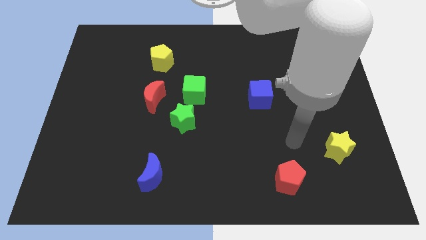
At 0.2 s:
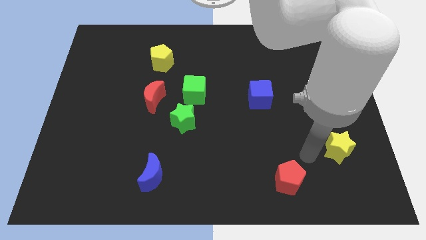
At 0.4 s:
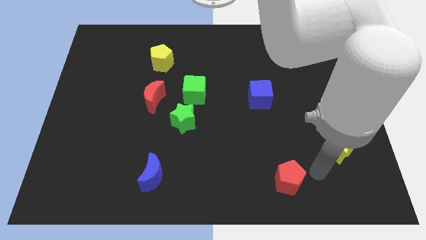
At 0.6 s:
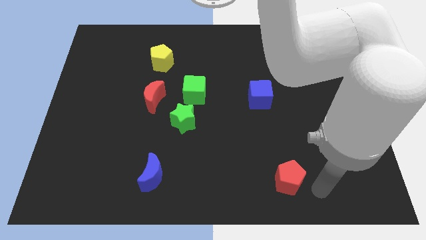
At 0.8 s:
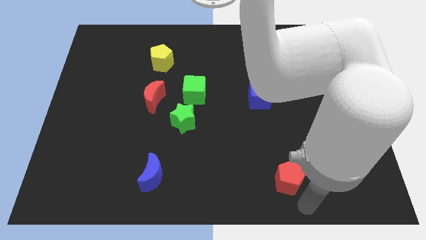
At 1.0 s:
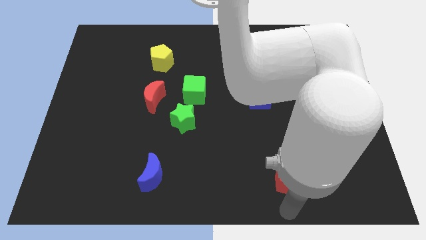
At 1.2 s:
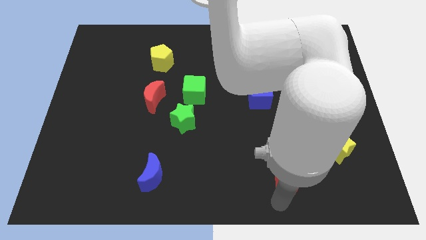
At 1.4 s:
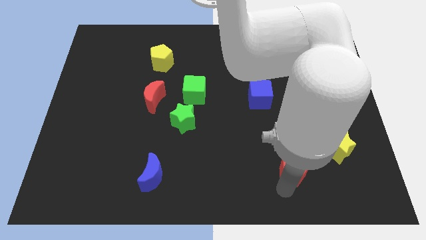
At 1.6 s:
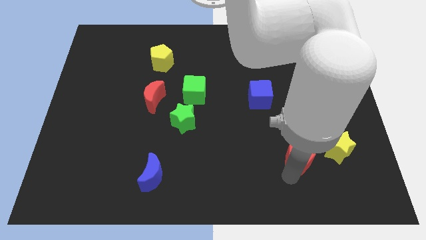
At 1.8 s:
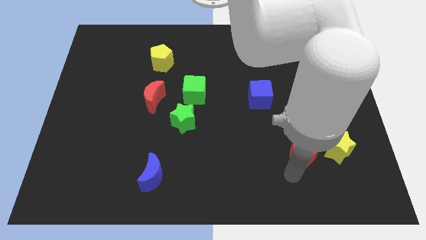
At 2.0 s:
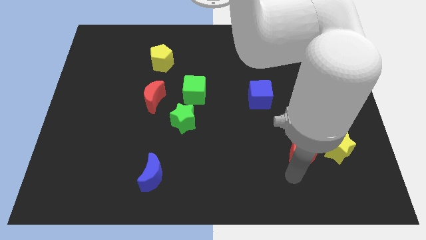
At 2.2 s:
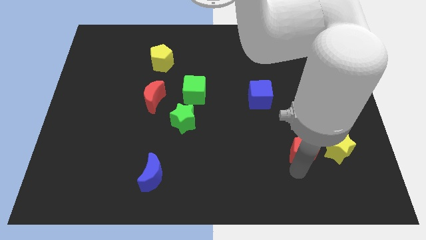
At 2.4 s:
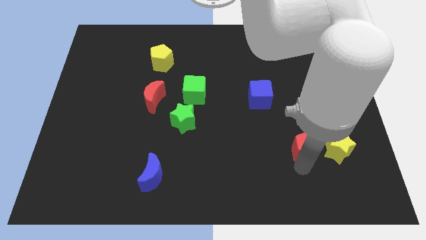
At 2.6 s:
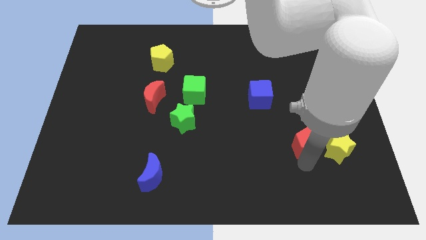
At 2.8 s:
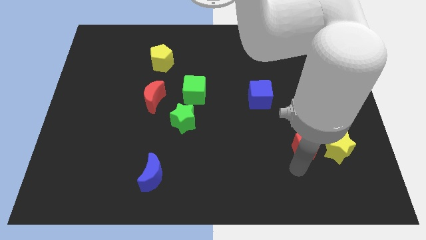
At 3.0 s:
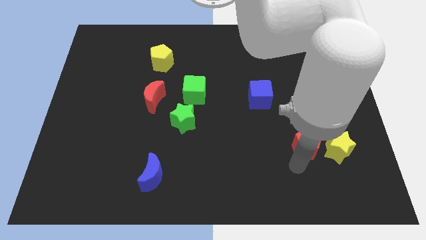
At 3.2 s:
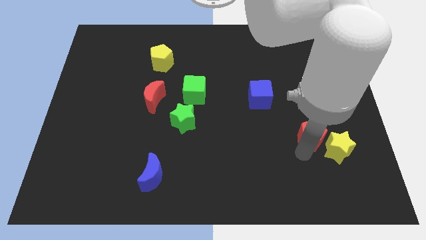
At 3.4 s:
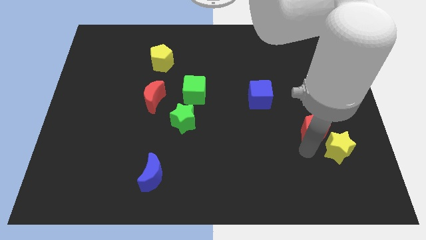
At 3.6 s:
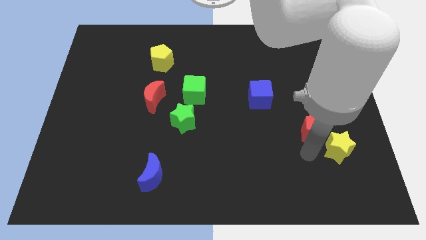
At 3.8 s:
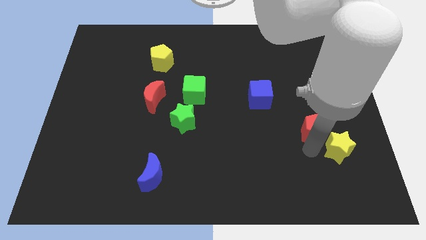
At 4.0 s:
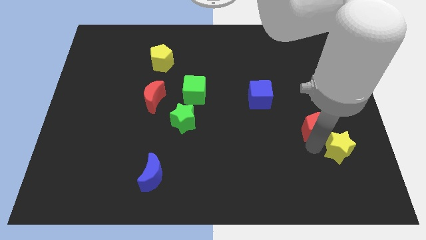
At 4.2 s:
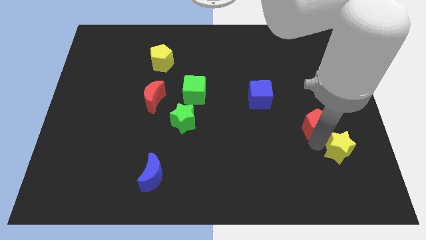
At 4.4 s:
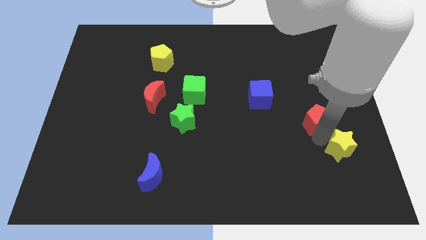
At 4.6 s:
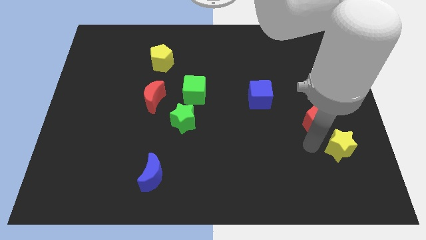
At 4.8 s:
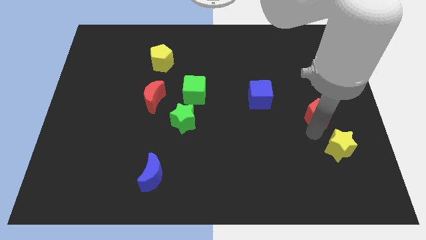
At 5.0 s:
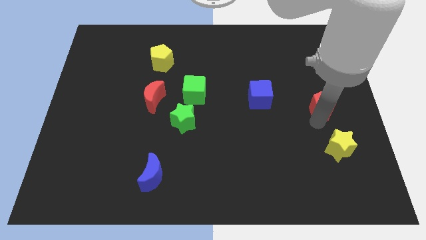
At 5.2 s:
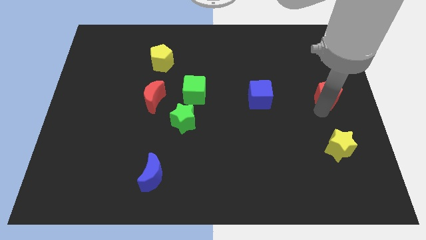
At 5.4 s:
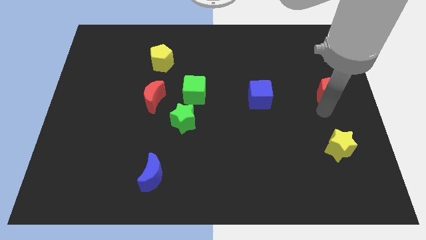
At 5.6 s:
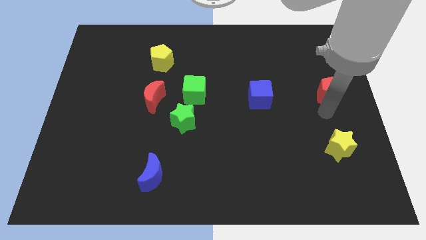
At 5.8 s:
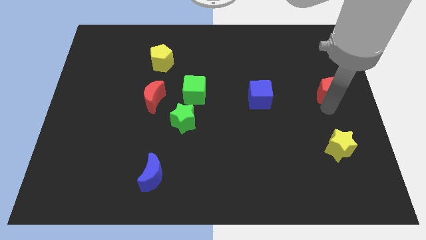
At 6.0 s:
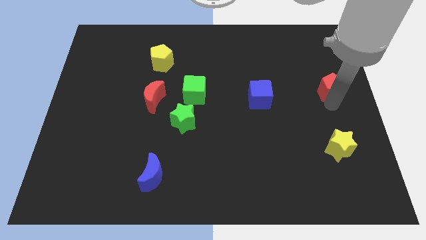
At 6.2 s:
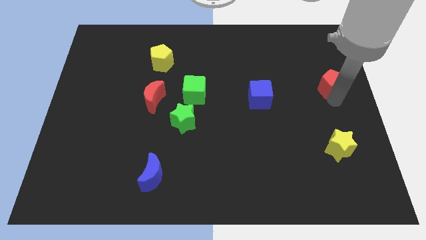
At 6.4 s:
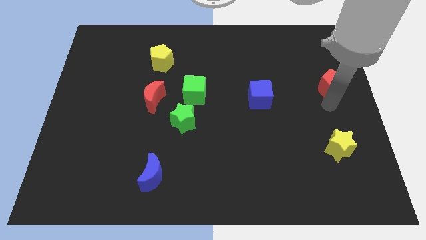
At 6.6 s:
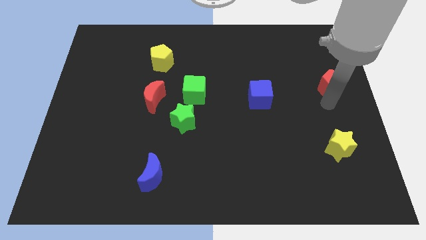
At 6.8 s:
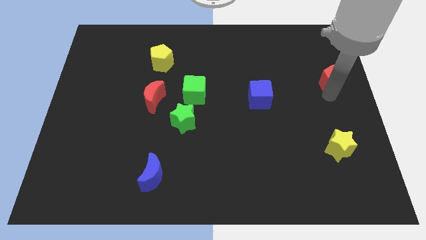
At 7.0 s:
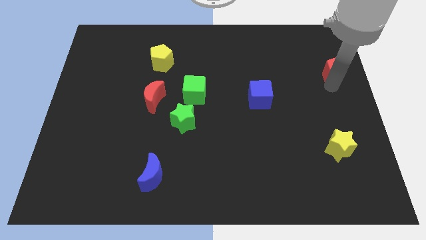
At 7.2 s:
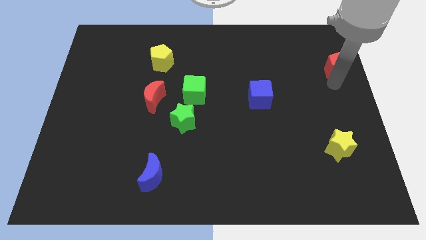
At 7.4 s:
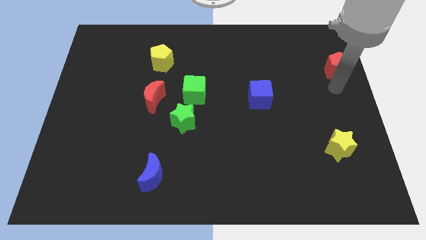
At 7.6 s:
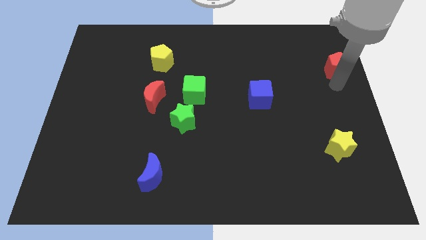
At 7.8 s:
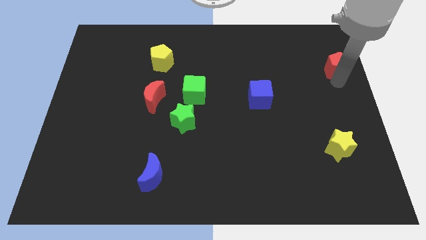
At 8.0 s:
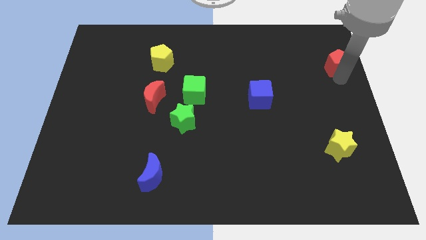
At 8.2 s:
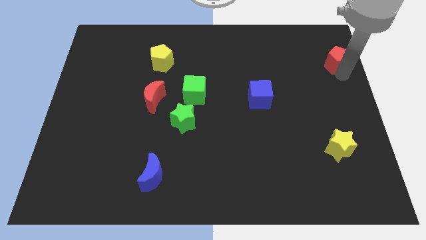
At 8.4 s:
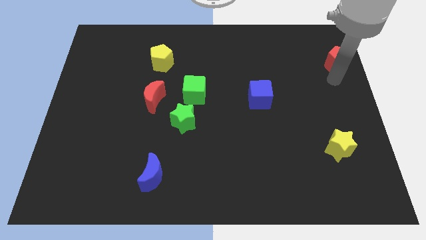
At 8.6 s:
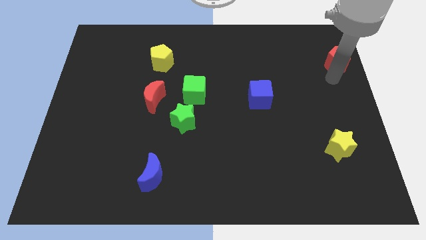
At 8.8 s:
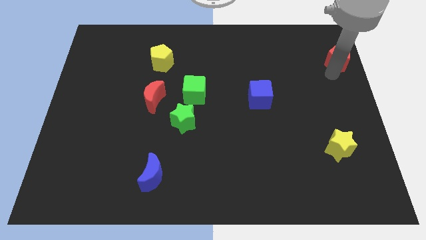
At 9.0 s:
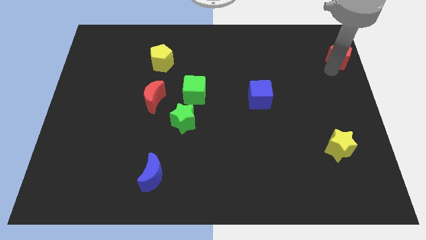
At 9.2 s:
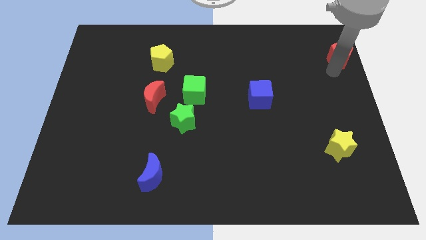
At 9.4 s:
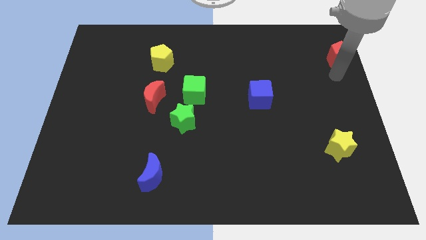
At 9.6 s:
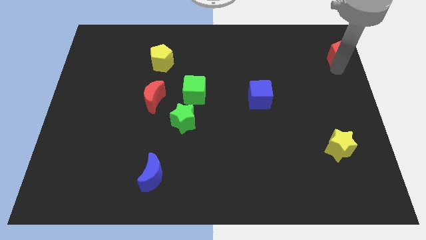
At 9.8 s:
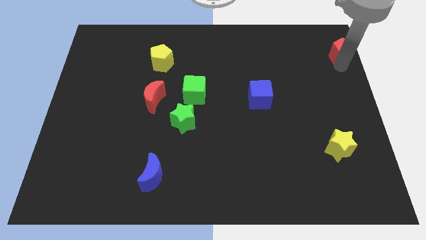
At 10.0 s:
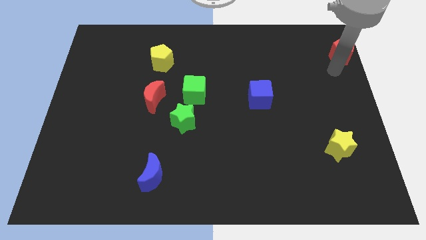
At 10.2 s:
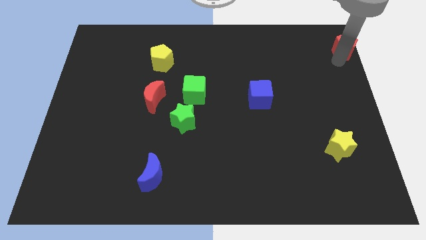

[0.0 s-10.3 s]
move the red pentagon to the upper right corner

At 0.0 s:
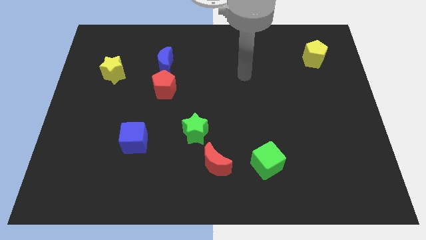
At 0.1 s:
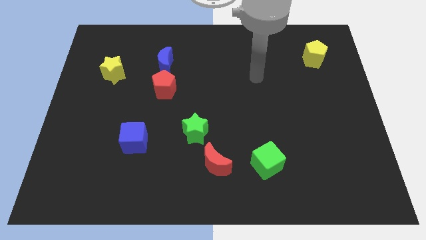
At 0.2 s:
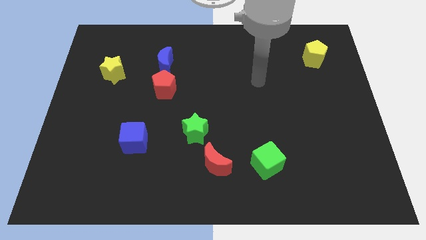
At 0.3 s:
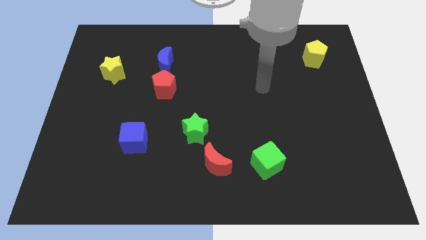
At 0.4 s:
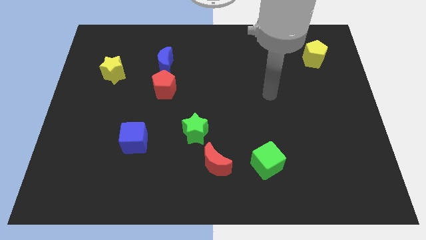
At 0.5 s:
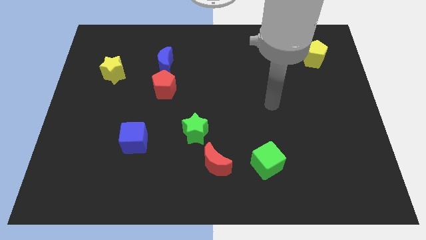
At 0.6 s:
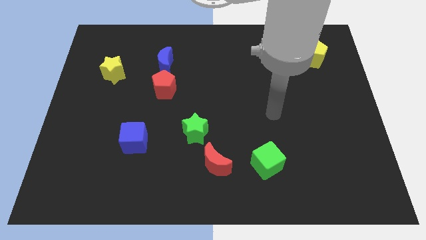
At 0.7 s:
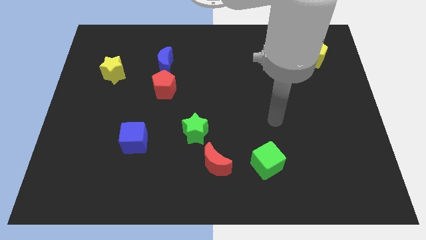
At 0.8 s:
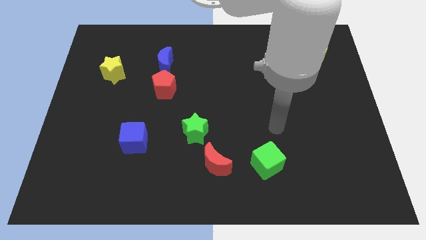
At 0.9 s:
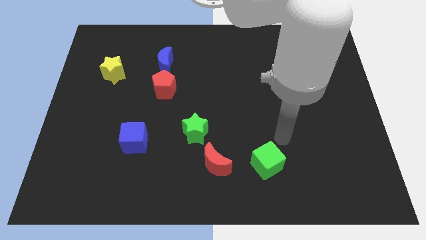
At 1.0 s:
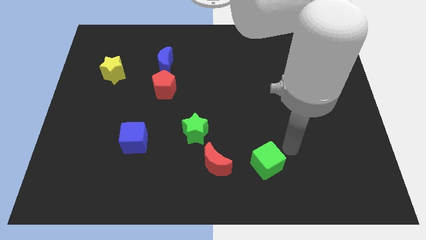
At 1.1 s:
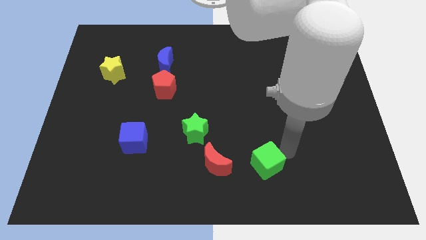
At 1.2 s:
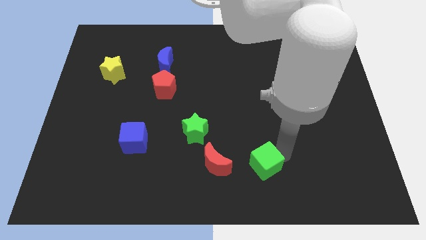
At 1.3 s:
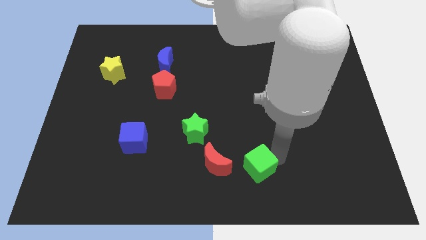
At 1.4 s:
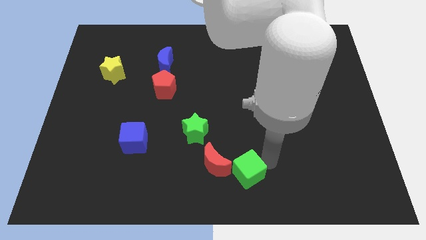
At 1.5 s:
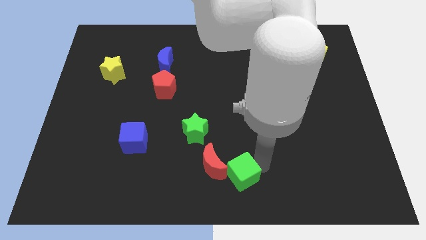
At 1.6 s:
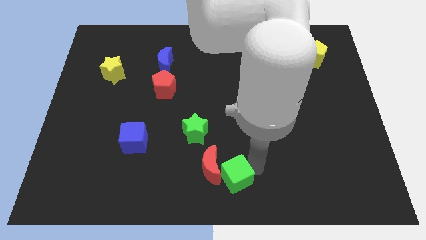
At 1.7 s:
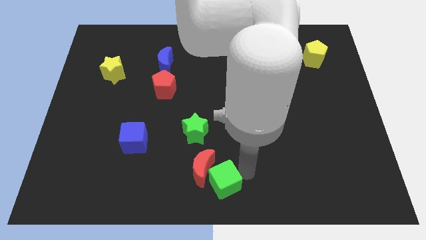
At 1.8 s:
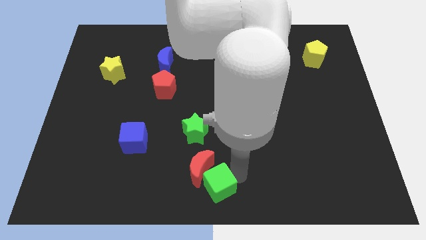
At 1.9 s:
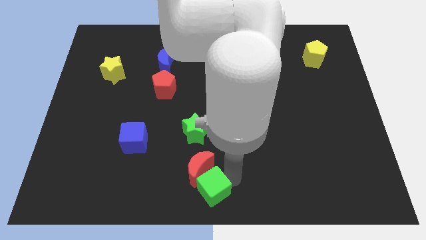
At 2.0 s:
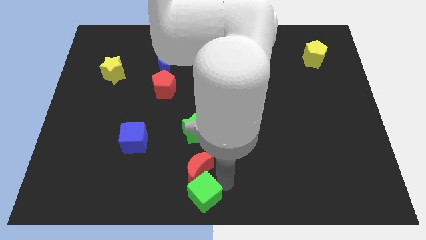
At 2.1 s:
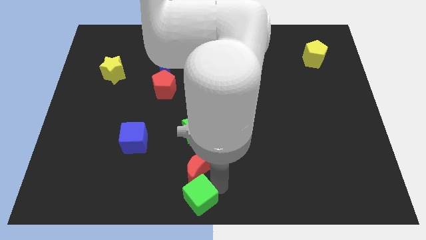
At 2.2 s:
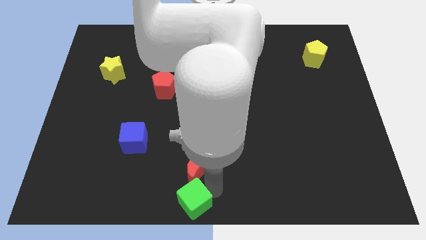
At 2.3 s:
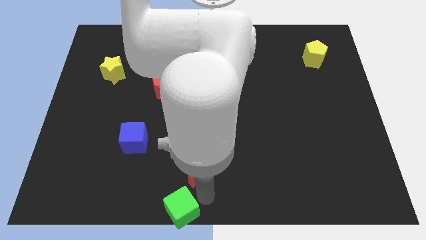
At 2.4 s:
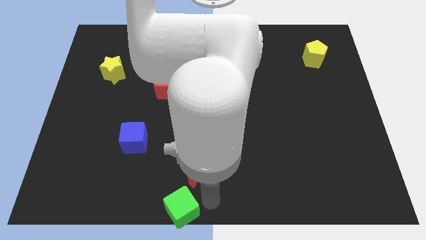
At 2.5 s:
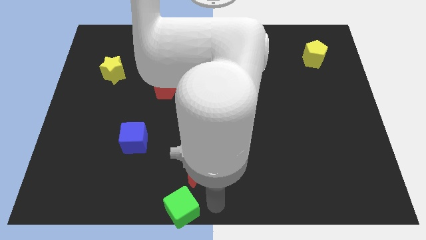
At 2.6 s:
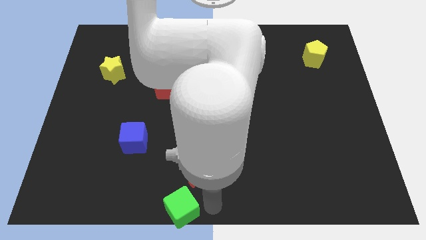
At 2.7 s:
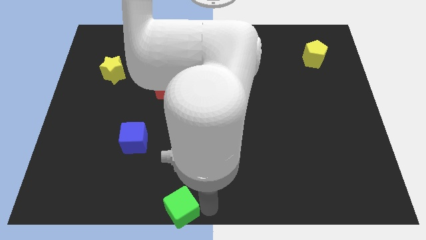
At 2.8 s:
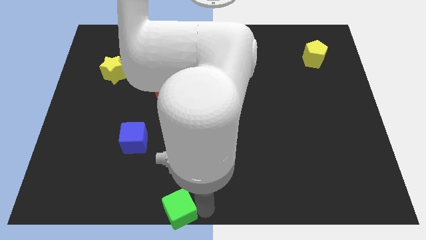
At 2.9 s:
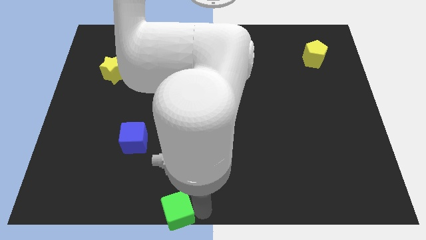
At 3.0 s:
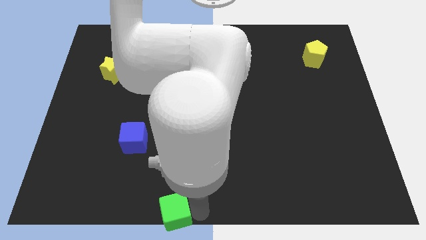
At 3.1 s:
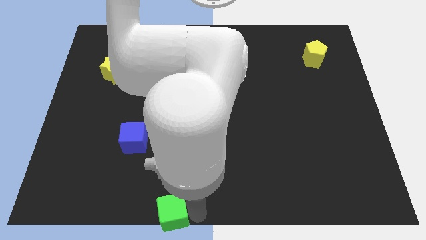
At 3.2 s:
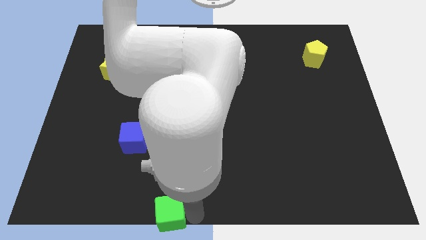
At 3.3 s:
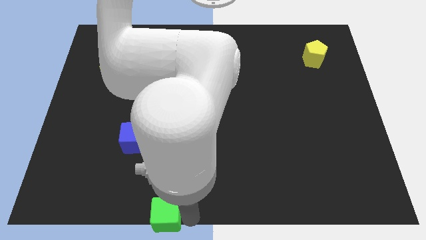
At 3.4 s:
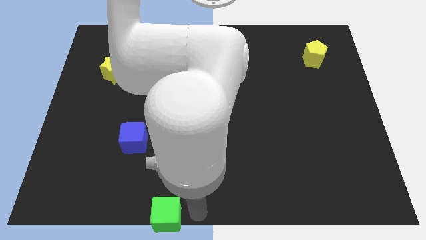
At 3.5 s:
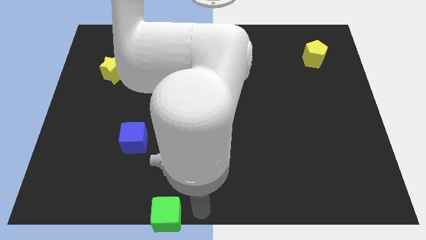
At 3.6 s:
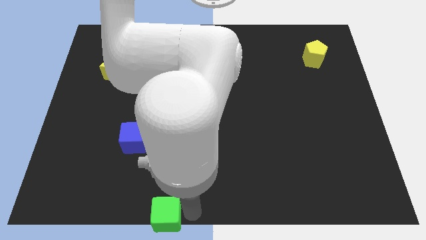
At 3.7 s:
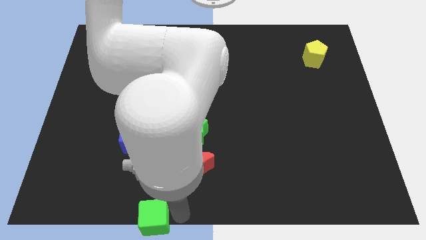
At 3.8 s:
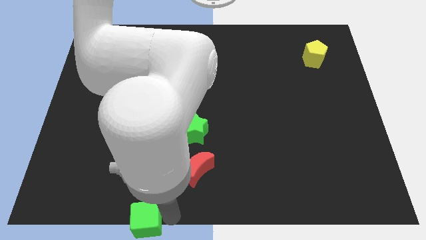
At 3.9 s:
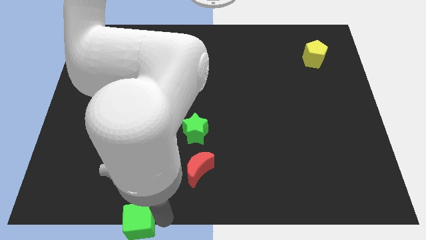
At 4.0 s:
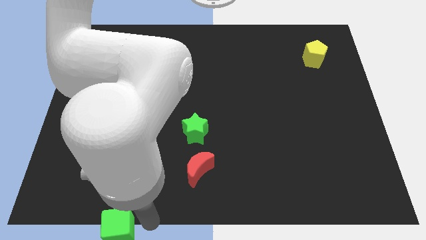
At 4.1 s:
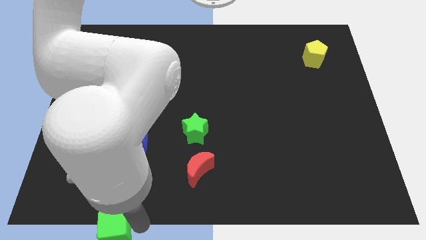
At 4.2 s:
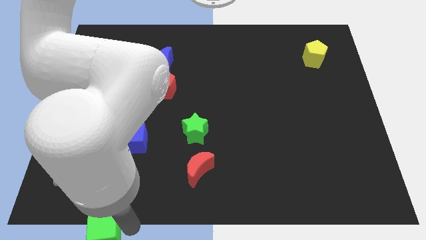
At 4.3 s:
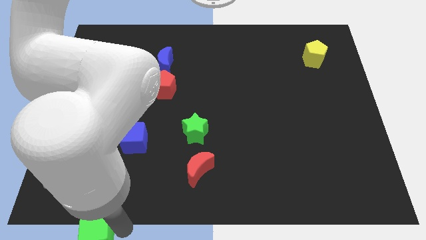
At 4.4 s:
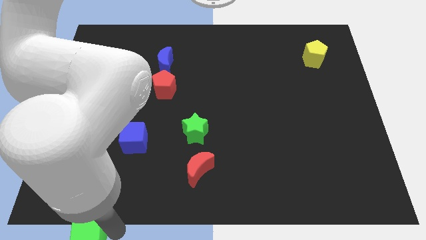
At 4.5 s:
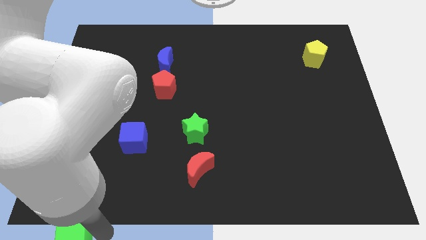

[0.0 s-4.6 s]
slide the green cube to the lower left corner
